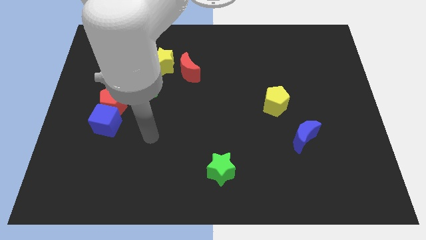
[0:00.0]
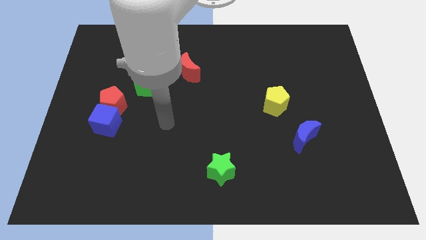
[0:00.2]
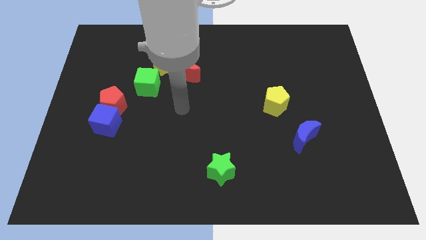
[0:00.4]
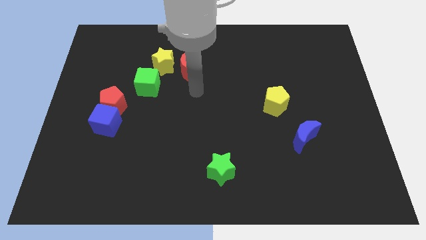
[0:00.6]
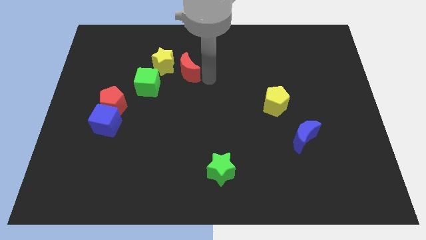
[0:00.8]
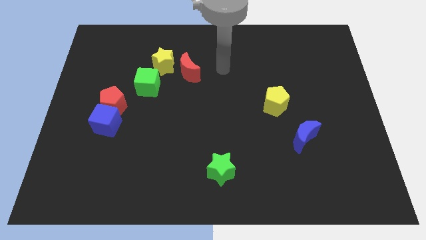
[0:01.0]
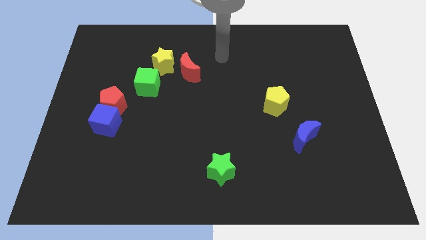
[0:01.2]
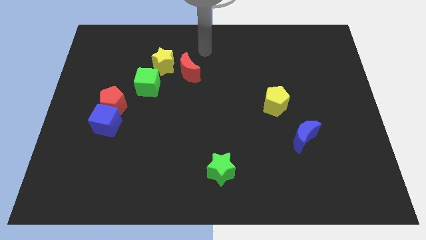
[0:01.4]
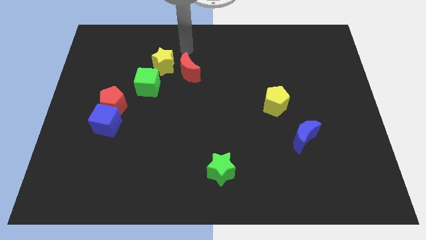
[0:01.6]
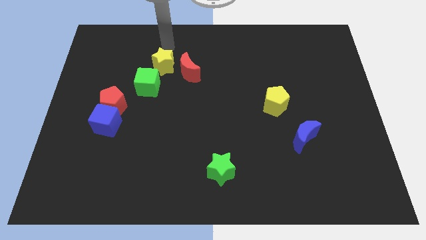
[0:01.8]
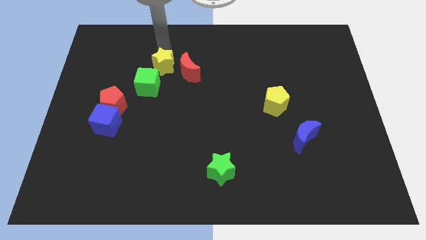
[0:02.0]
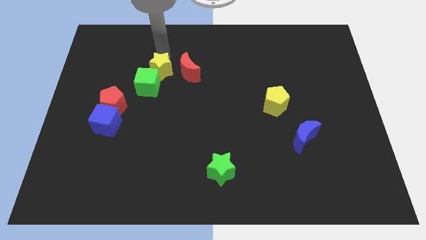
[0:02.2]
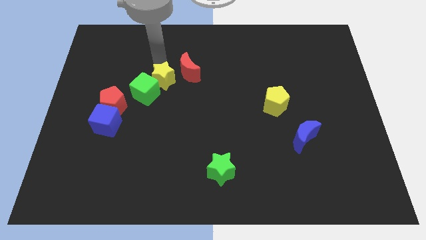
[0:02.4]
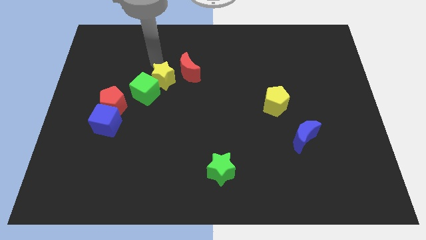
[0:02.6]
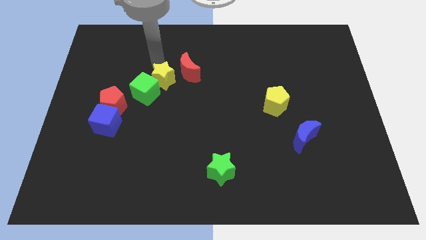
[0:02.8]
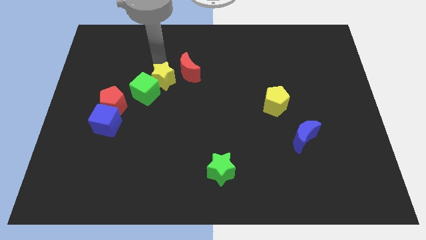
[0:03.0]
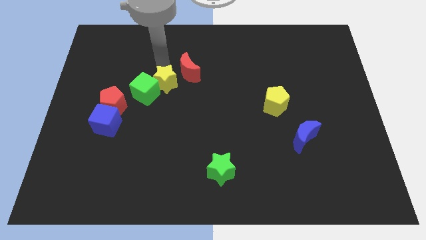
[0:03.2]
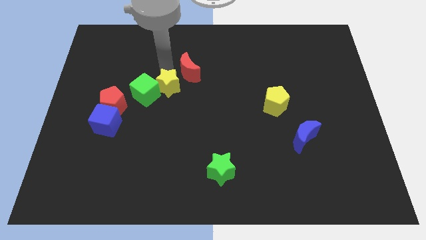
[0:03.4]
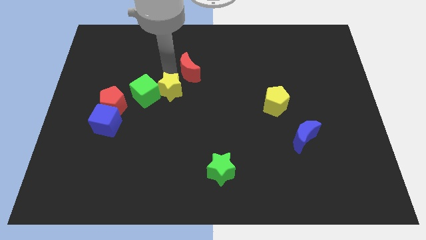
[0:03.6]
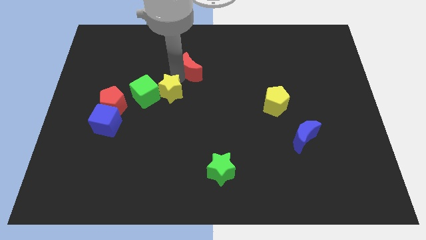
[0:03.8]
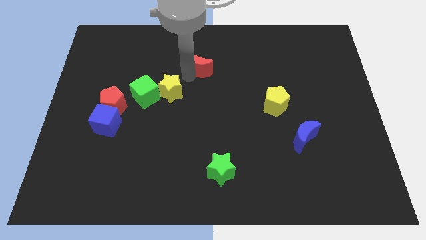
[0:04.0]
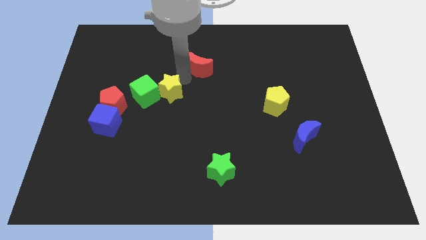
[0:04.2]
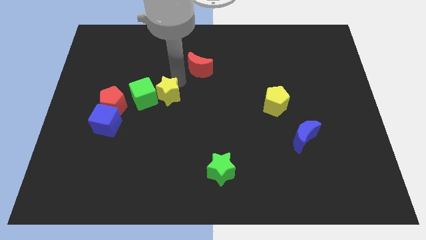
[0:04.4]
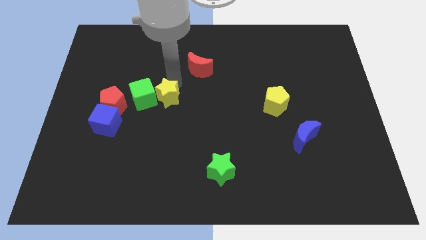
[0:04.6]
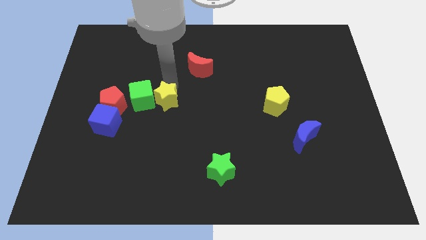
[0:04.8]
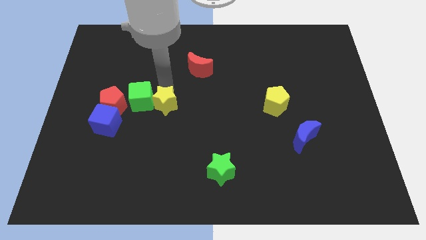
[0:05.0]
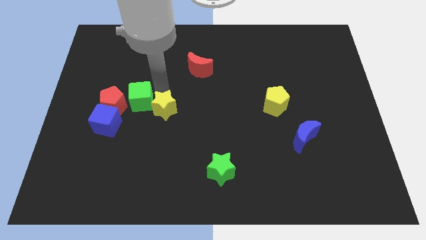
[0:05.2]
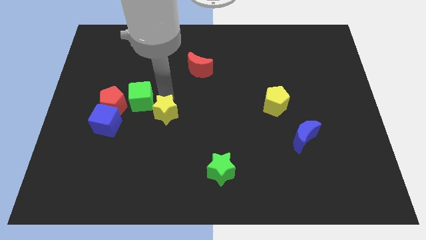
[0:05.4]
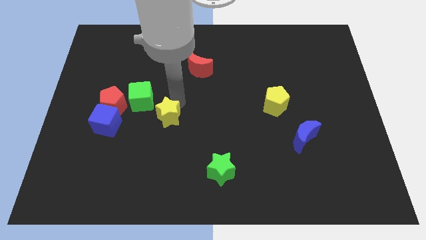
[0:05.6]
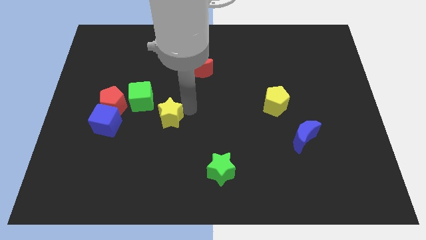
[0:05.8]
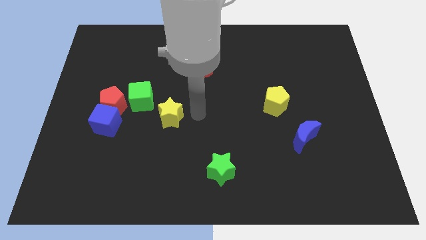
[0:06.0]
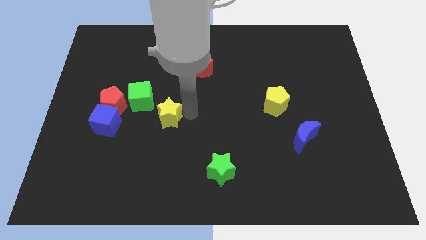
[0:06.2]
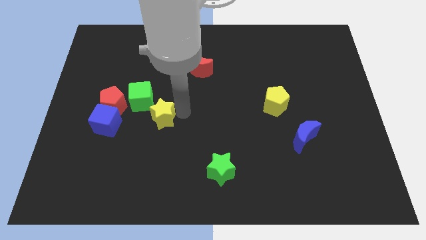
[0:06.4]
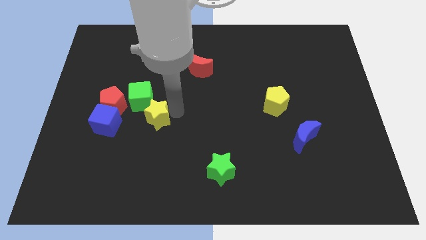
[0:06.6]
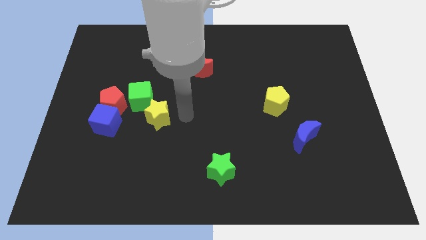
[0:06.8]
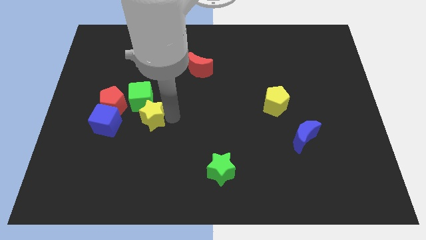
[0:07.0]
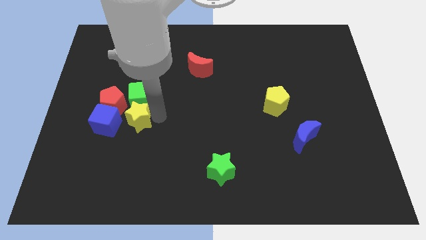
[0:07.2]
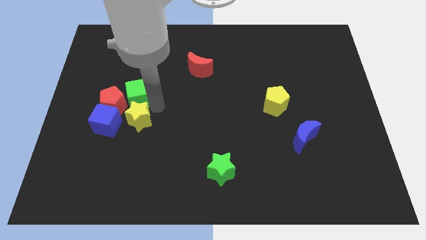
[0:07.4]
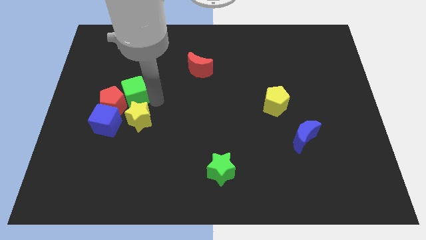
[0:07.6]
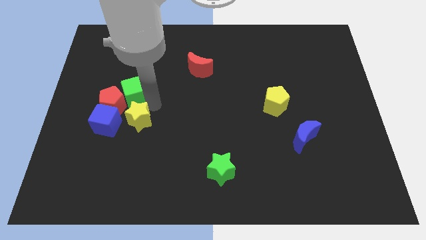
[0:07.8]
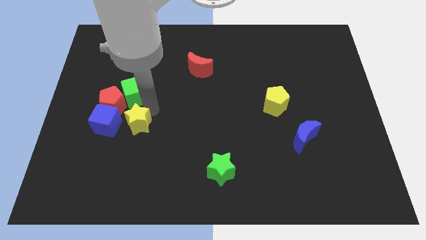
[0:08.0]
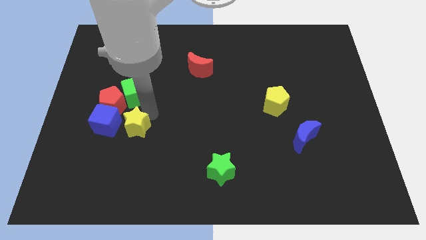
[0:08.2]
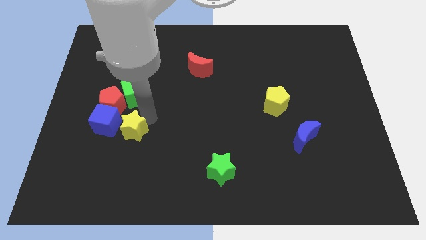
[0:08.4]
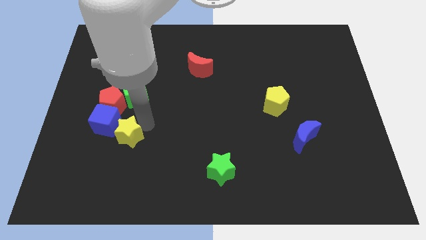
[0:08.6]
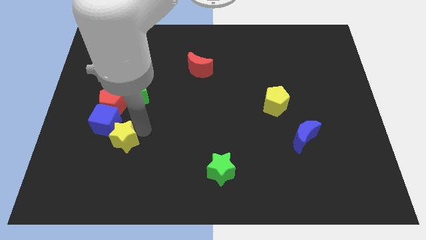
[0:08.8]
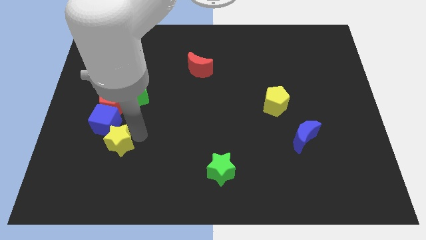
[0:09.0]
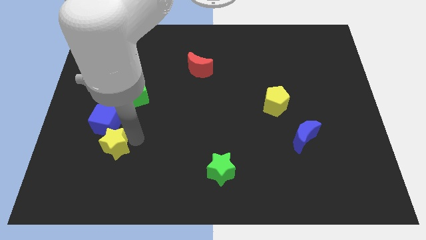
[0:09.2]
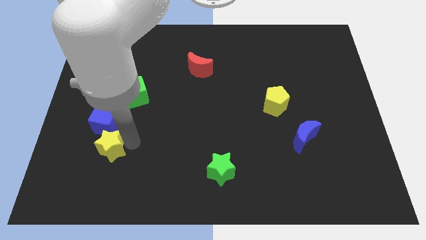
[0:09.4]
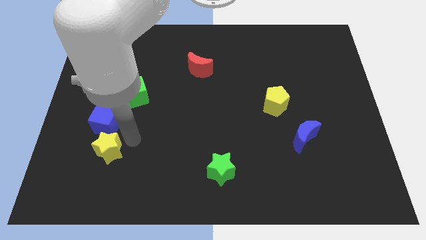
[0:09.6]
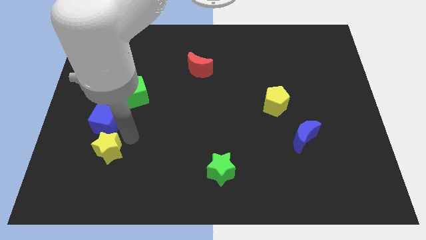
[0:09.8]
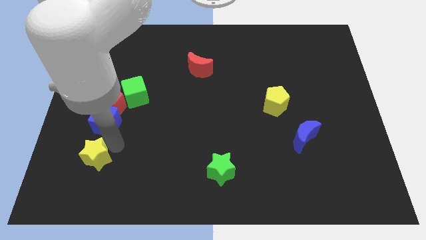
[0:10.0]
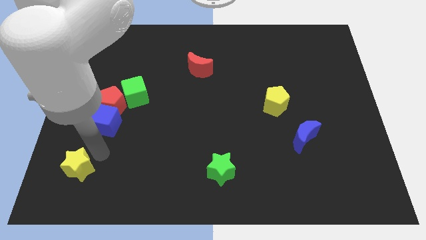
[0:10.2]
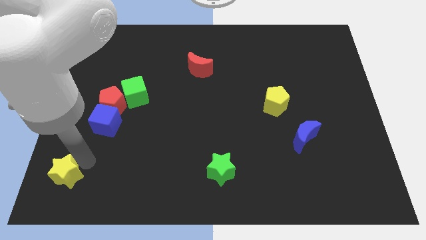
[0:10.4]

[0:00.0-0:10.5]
move the yellow star to the bottom left of the board

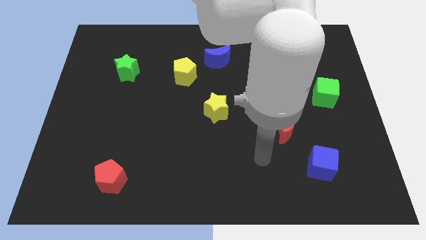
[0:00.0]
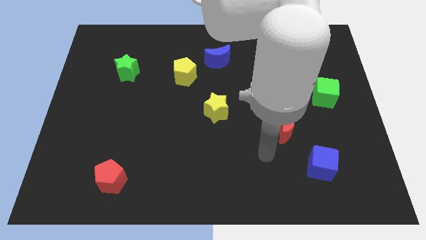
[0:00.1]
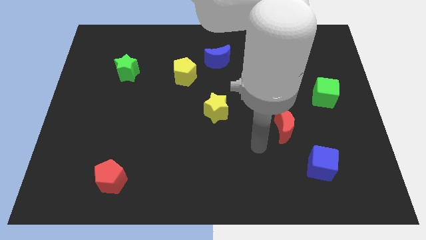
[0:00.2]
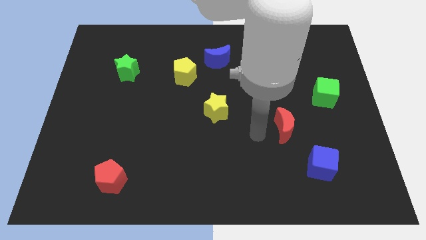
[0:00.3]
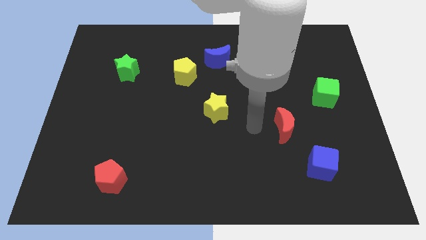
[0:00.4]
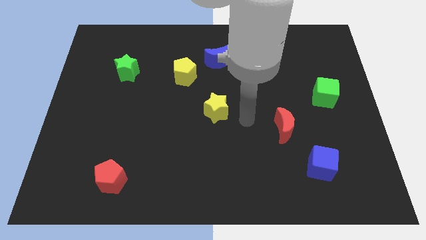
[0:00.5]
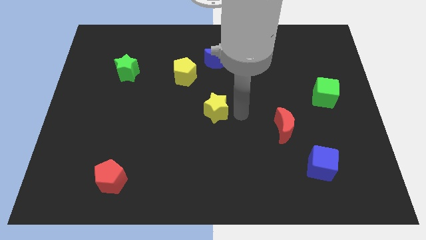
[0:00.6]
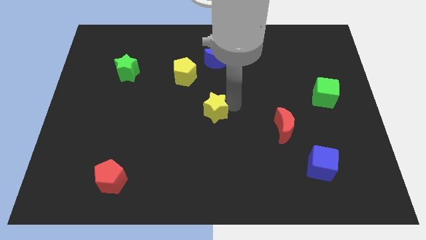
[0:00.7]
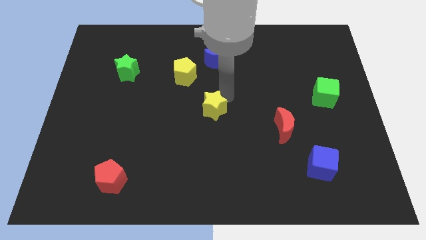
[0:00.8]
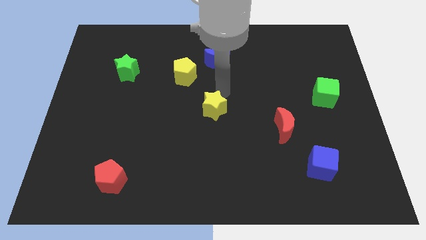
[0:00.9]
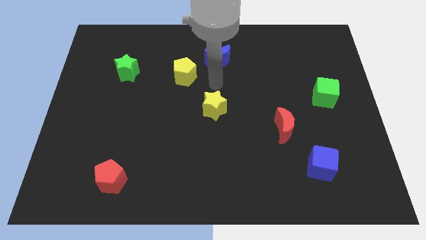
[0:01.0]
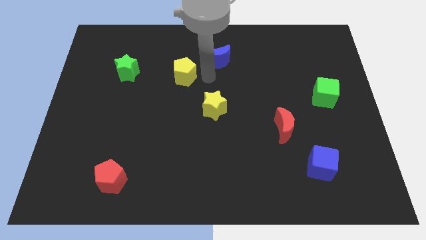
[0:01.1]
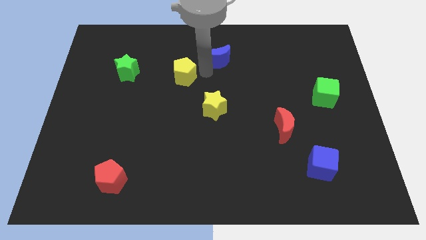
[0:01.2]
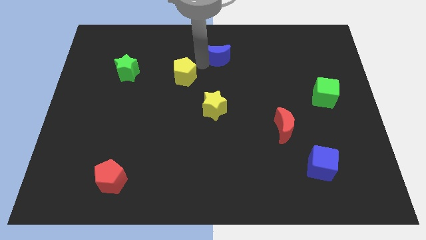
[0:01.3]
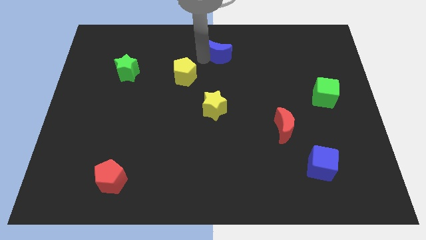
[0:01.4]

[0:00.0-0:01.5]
slide the blue moon to the towards your base
